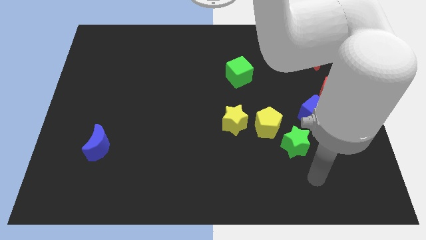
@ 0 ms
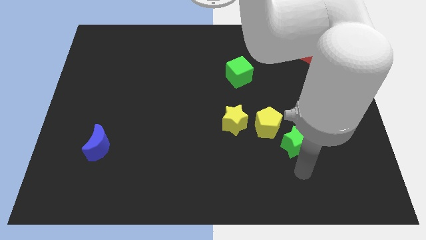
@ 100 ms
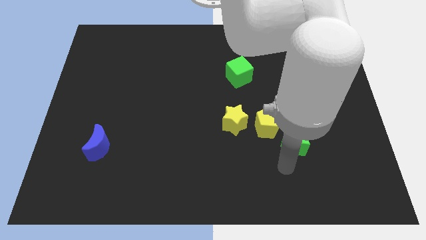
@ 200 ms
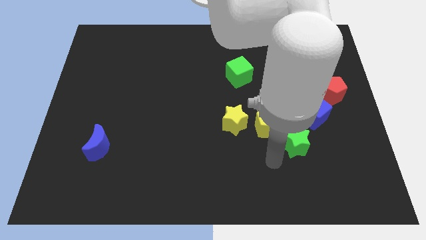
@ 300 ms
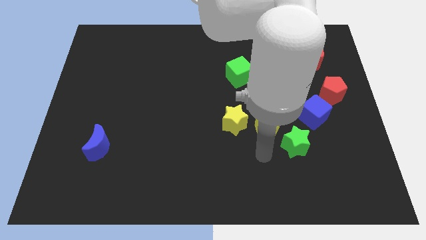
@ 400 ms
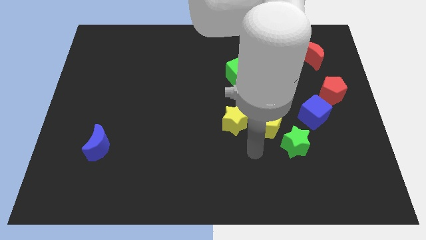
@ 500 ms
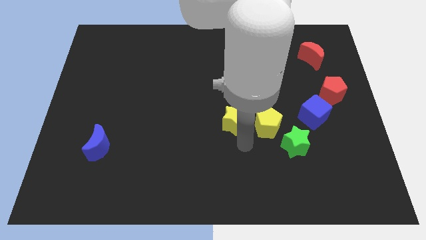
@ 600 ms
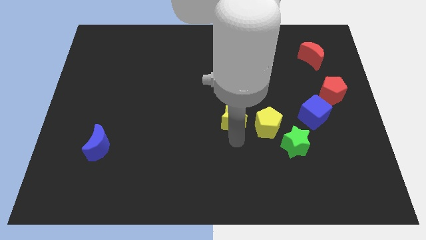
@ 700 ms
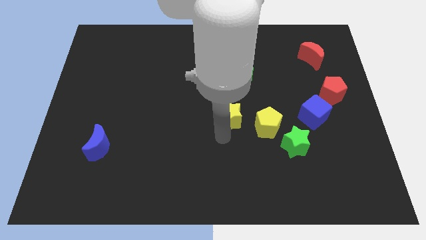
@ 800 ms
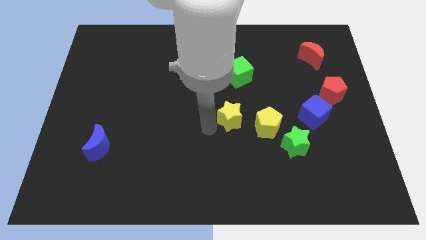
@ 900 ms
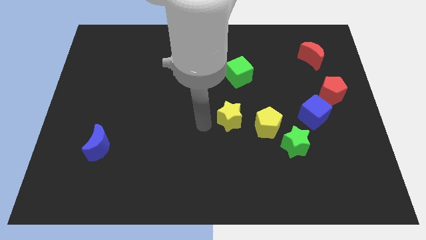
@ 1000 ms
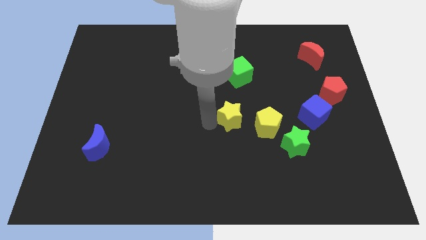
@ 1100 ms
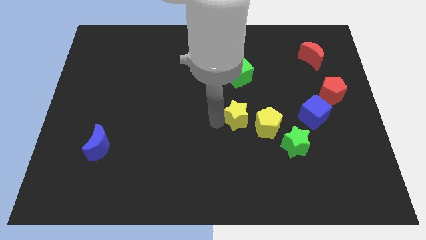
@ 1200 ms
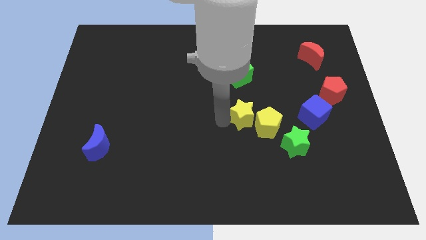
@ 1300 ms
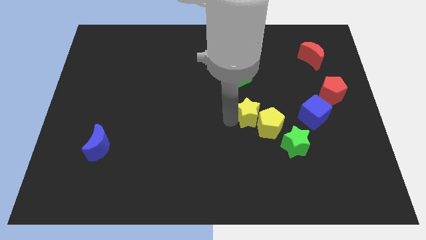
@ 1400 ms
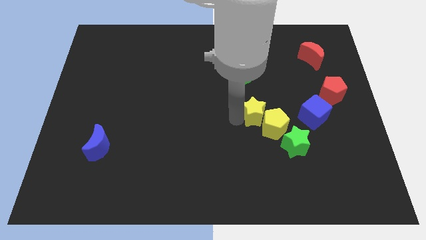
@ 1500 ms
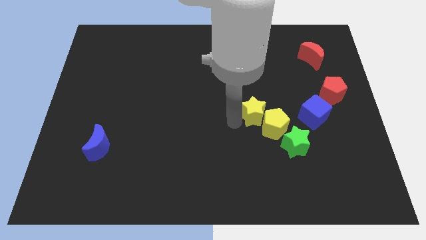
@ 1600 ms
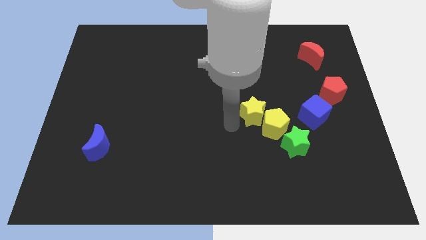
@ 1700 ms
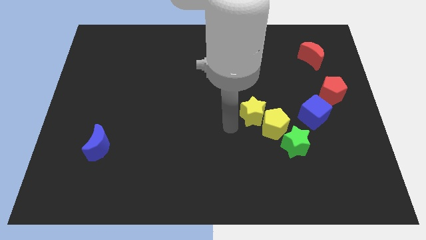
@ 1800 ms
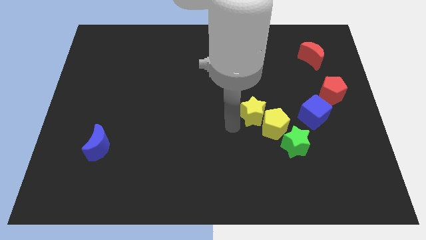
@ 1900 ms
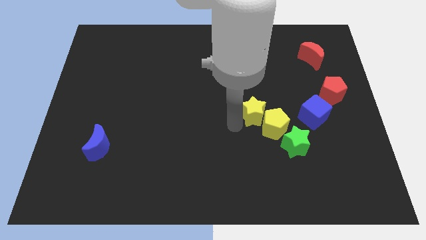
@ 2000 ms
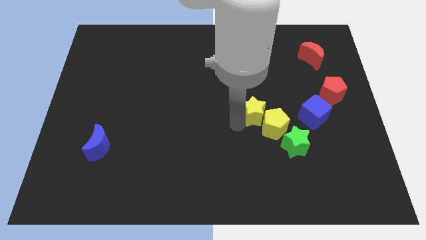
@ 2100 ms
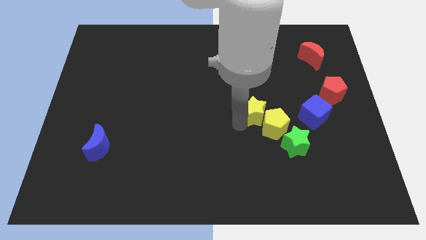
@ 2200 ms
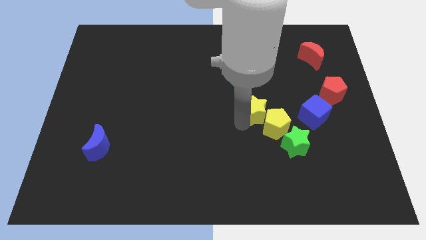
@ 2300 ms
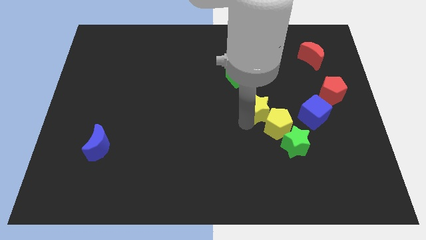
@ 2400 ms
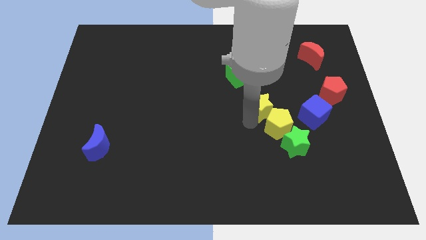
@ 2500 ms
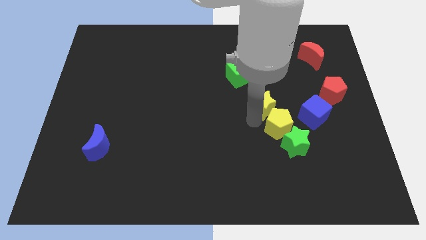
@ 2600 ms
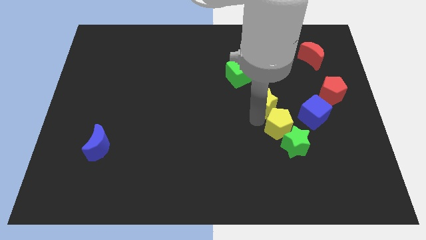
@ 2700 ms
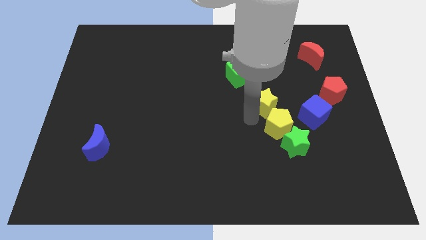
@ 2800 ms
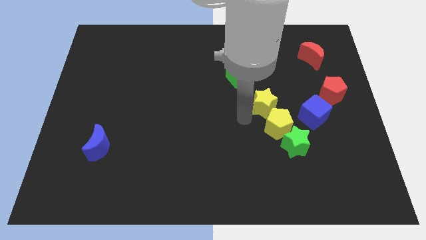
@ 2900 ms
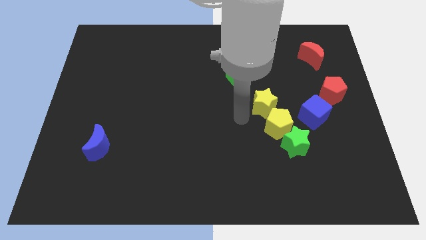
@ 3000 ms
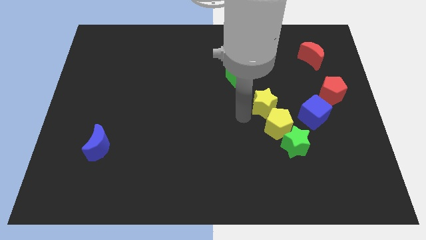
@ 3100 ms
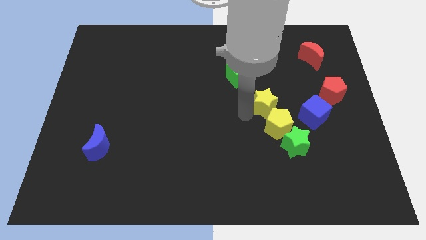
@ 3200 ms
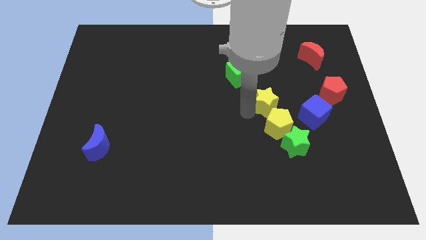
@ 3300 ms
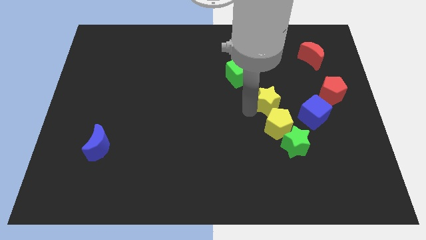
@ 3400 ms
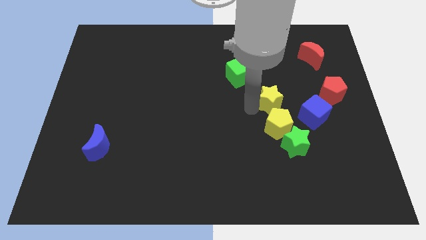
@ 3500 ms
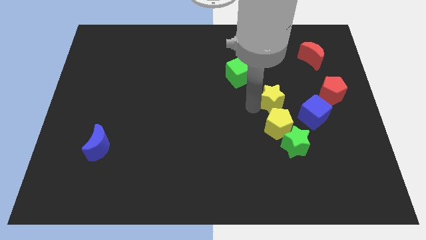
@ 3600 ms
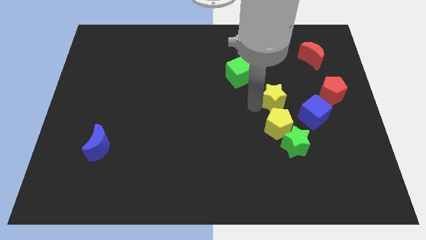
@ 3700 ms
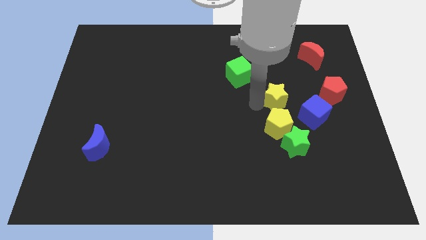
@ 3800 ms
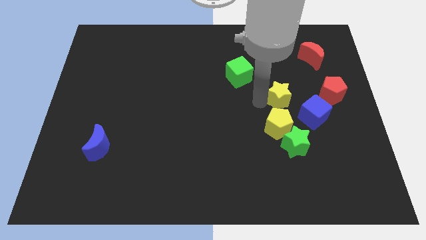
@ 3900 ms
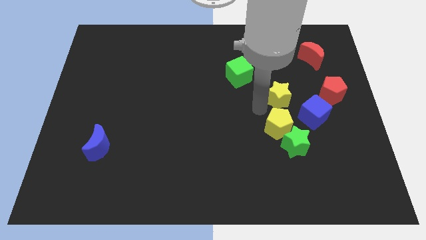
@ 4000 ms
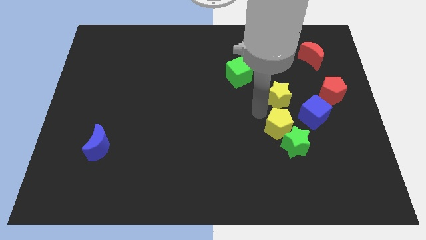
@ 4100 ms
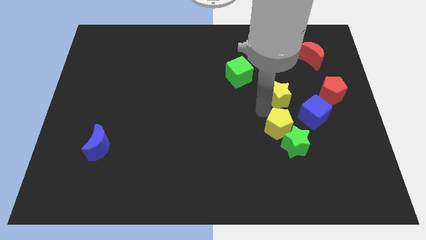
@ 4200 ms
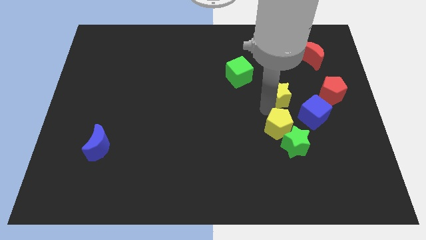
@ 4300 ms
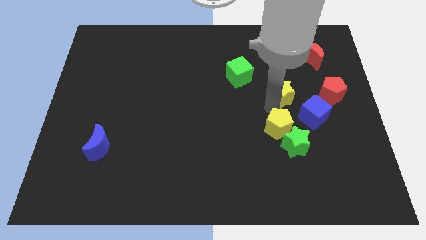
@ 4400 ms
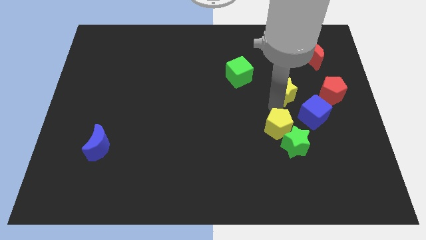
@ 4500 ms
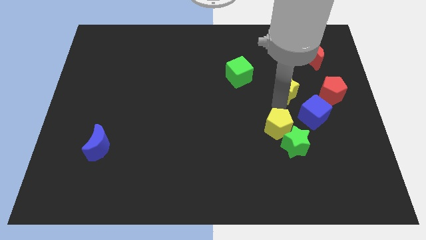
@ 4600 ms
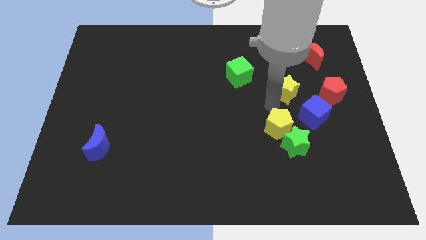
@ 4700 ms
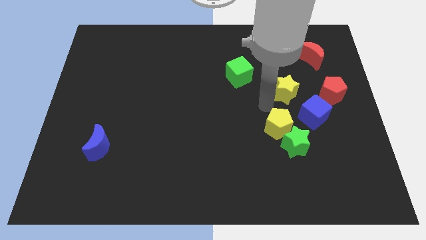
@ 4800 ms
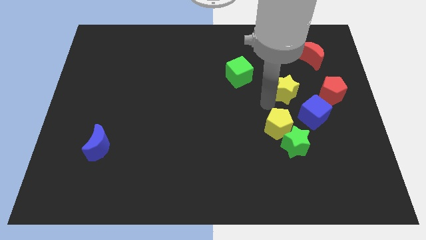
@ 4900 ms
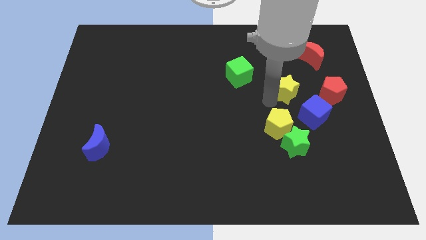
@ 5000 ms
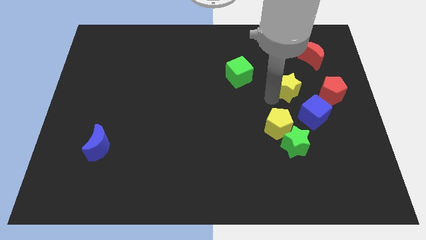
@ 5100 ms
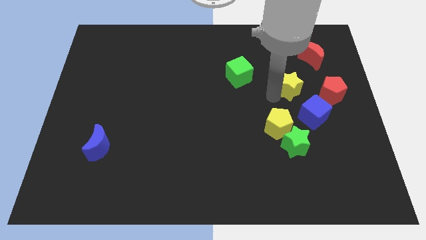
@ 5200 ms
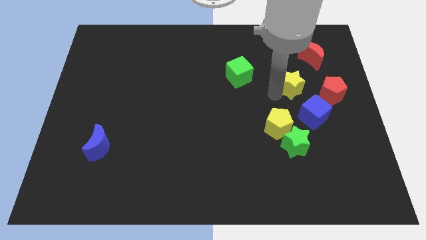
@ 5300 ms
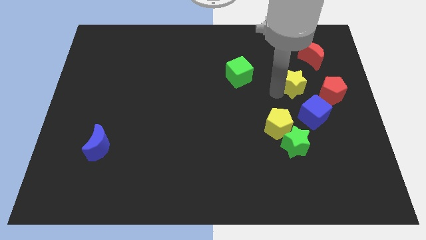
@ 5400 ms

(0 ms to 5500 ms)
slide the yellow star diagonally up and to the left of the red pentagon

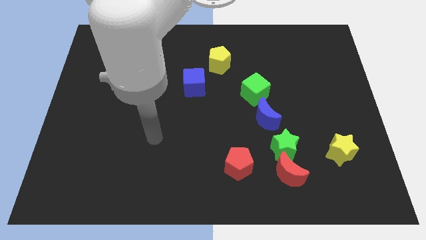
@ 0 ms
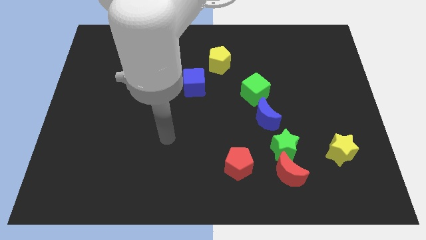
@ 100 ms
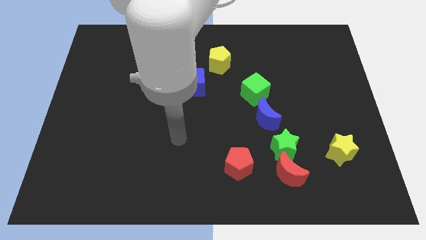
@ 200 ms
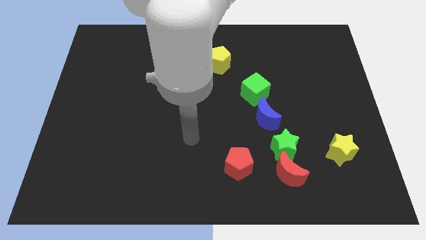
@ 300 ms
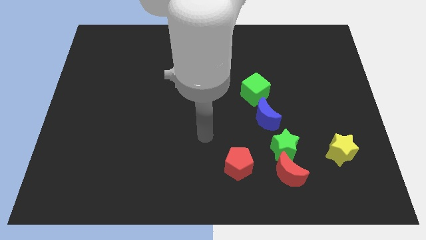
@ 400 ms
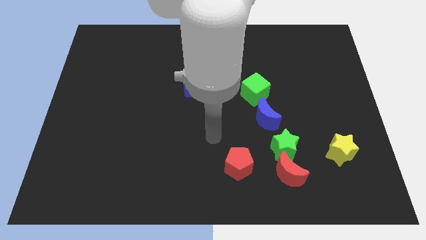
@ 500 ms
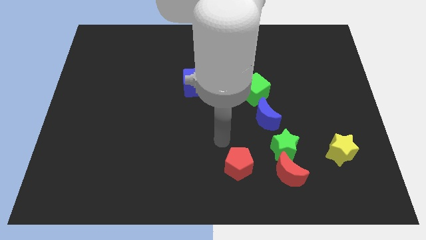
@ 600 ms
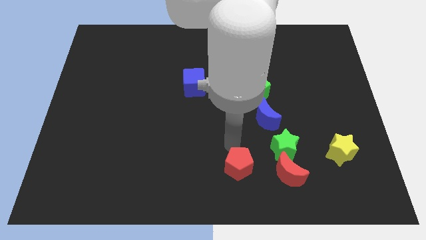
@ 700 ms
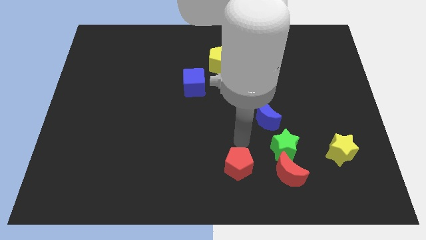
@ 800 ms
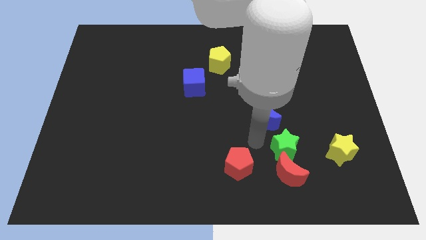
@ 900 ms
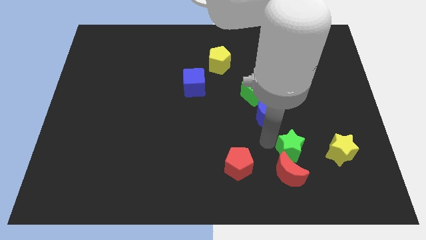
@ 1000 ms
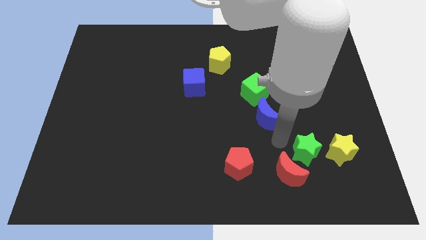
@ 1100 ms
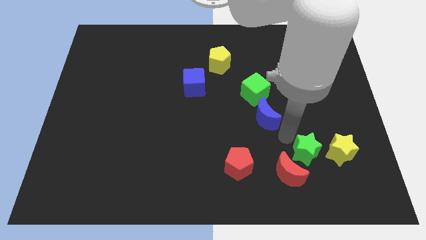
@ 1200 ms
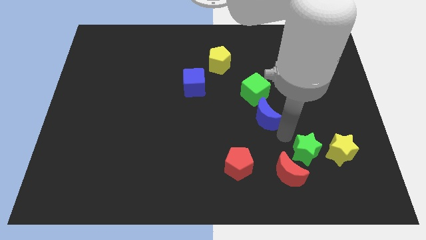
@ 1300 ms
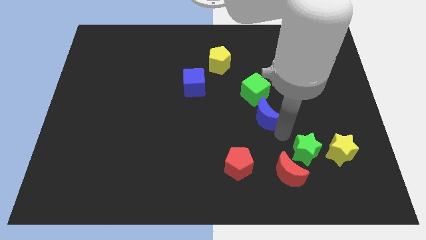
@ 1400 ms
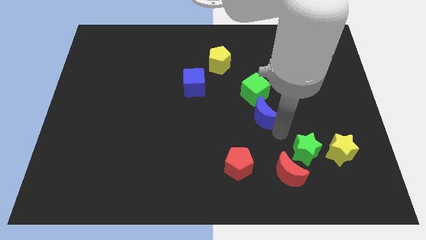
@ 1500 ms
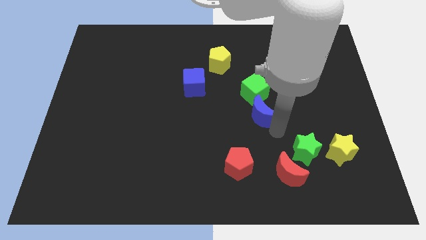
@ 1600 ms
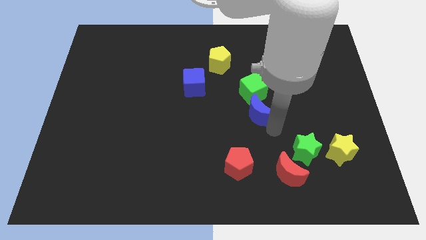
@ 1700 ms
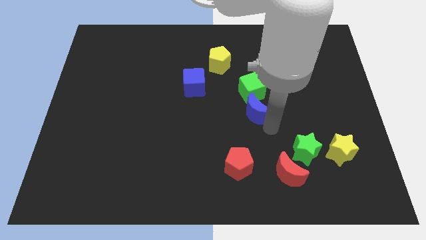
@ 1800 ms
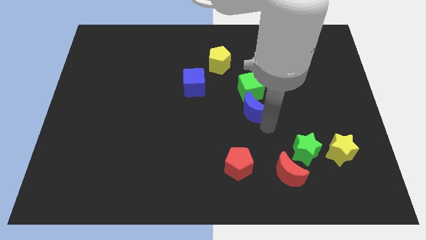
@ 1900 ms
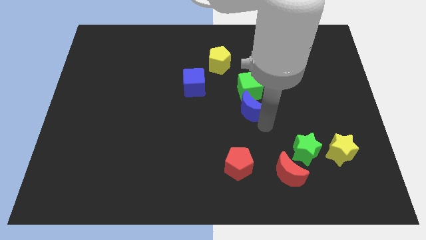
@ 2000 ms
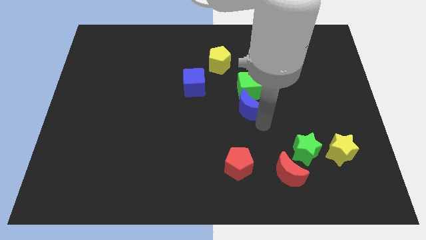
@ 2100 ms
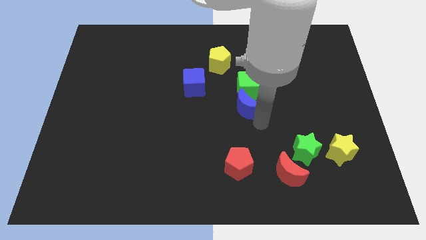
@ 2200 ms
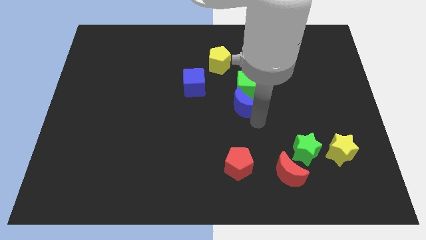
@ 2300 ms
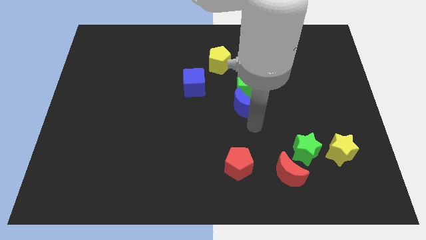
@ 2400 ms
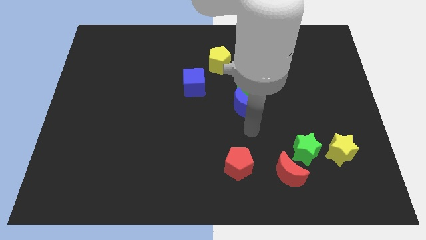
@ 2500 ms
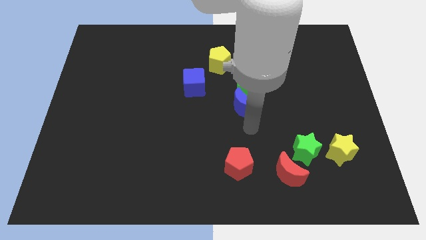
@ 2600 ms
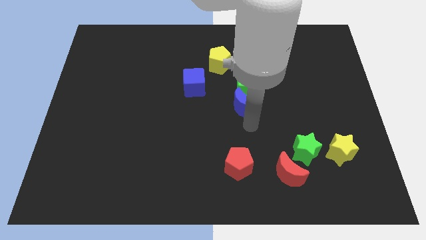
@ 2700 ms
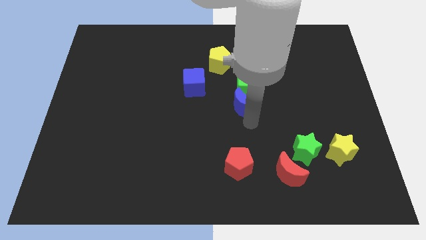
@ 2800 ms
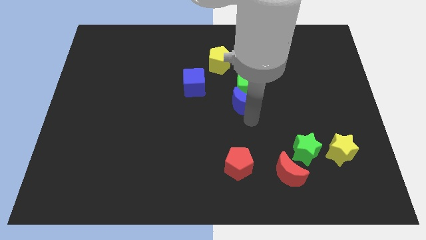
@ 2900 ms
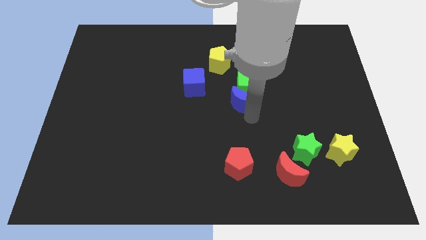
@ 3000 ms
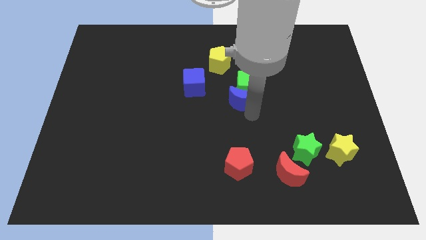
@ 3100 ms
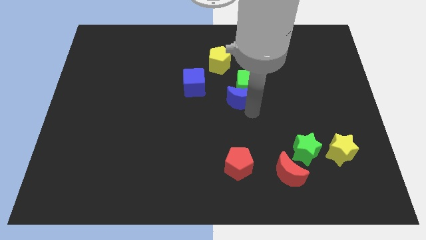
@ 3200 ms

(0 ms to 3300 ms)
move the blue moon to the right of the blue cube
